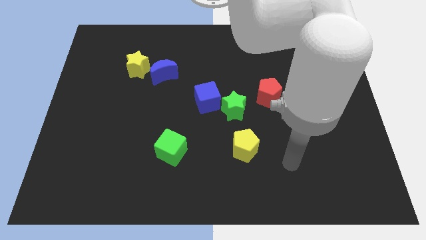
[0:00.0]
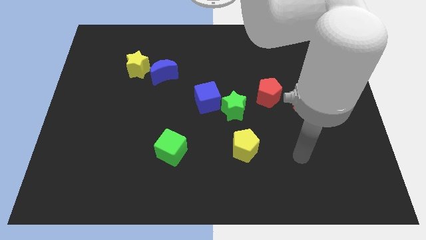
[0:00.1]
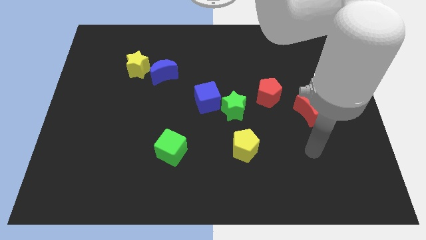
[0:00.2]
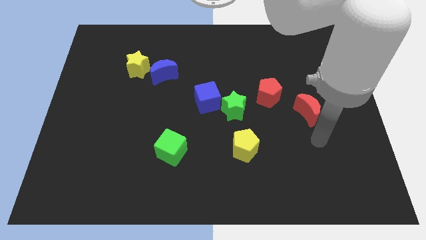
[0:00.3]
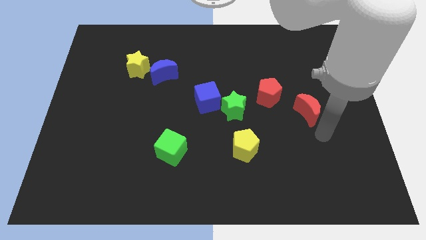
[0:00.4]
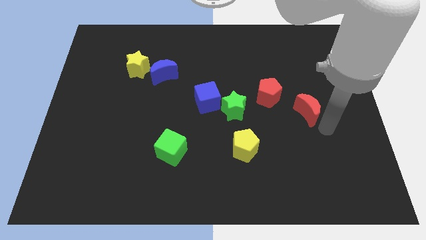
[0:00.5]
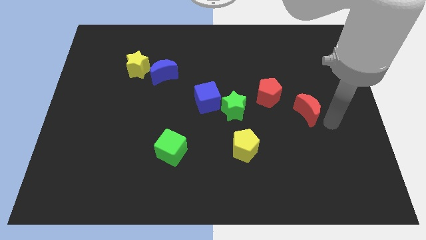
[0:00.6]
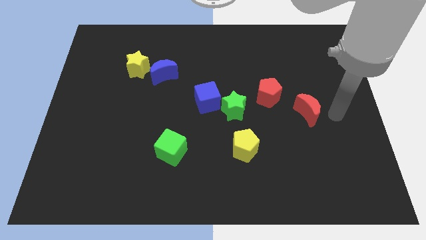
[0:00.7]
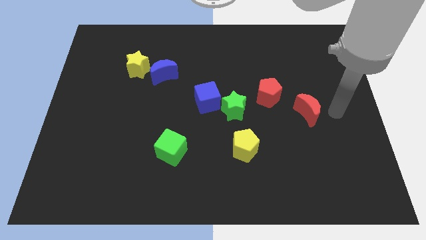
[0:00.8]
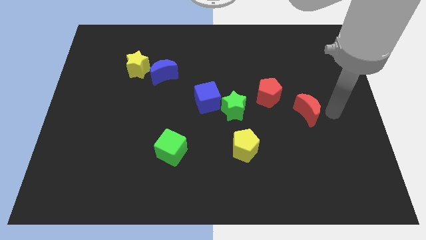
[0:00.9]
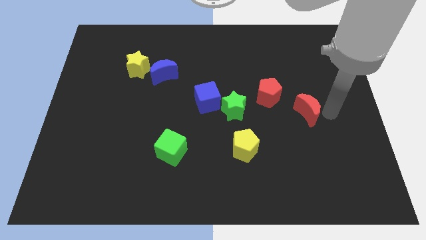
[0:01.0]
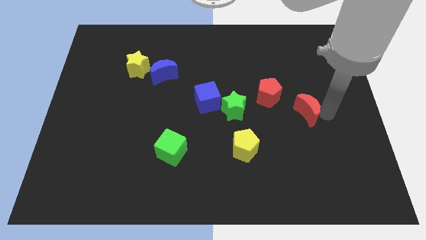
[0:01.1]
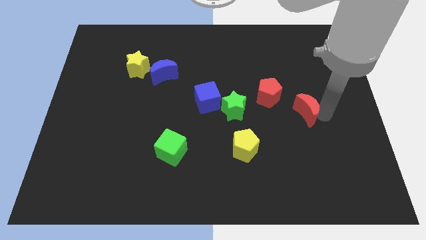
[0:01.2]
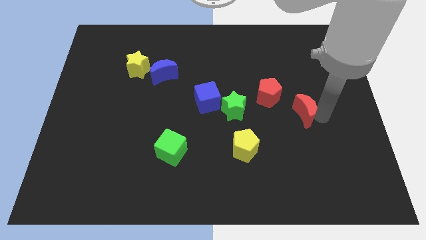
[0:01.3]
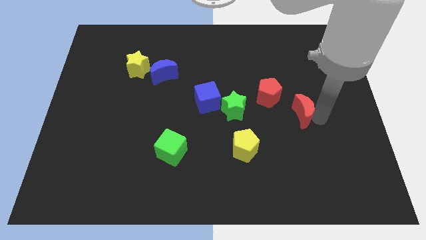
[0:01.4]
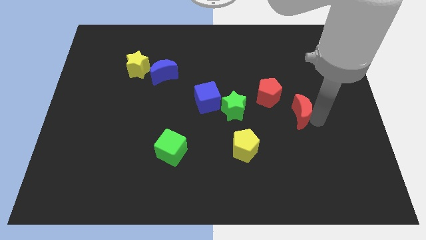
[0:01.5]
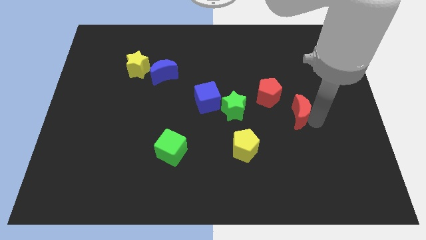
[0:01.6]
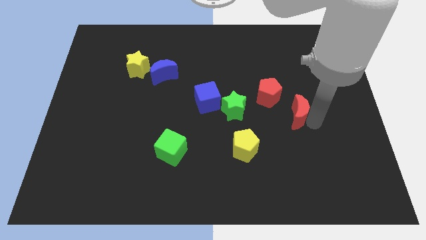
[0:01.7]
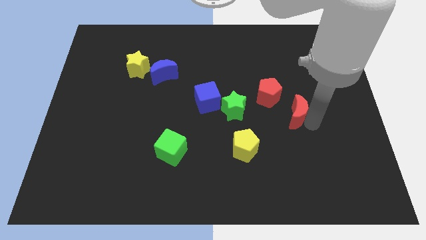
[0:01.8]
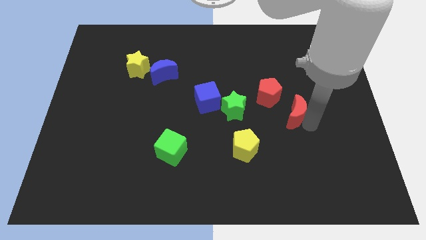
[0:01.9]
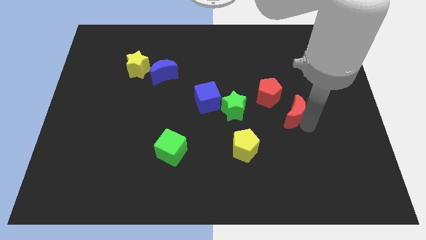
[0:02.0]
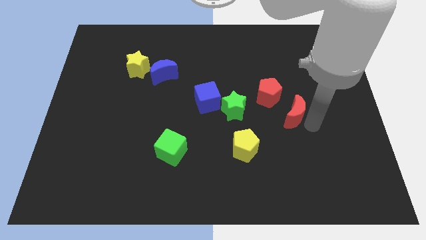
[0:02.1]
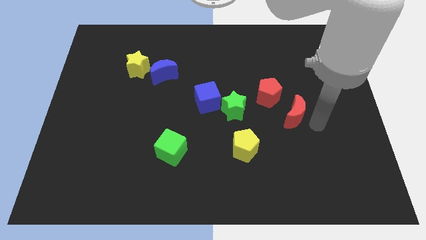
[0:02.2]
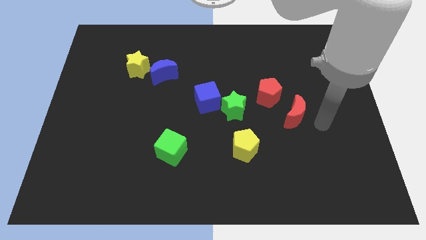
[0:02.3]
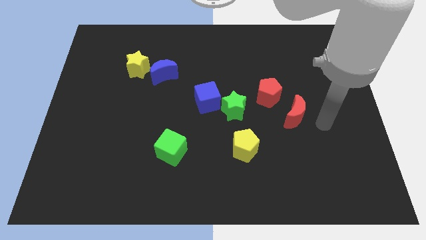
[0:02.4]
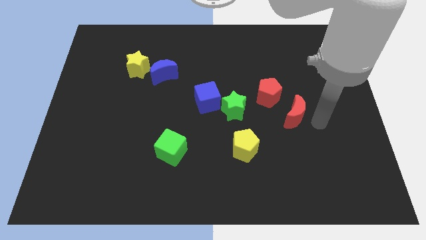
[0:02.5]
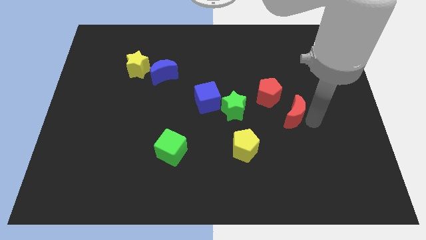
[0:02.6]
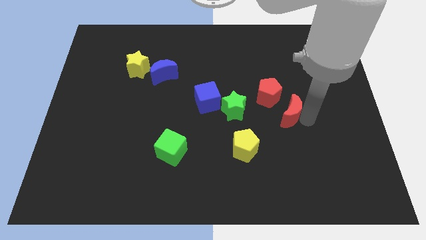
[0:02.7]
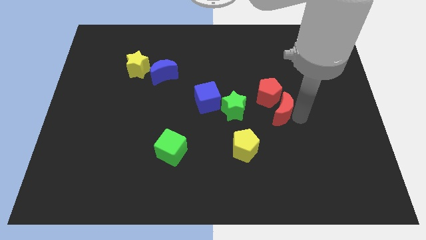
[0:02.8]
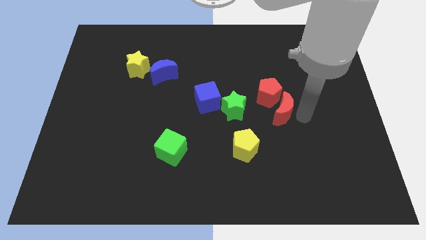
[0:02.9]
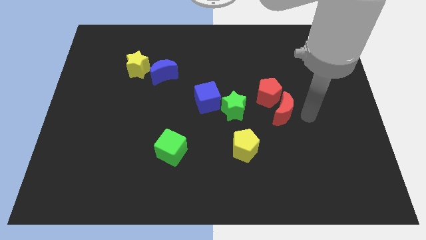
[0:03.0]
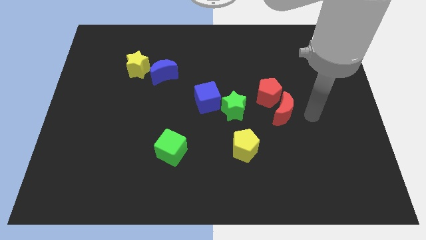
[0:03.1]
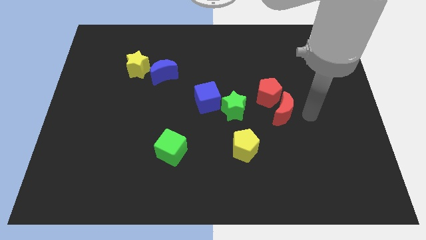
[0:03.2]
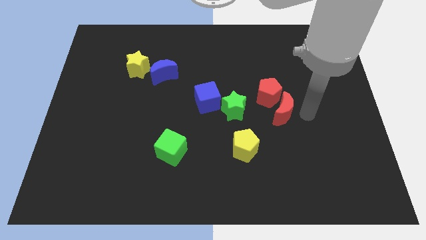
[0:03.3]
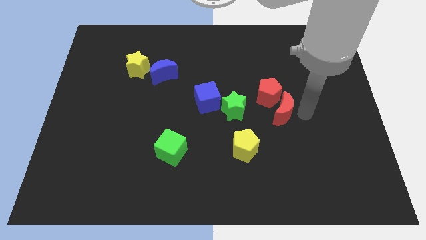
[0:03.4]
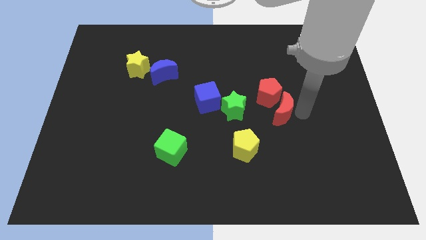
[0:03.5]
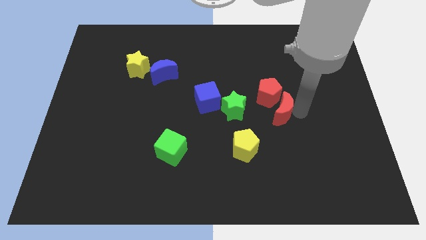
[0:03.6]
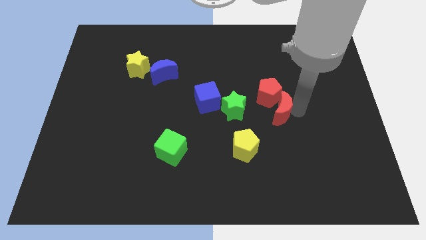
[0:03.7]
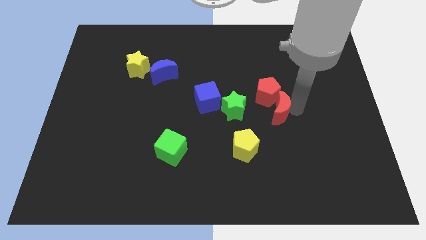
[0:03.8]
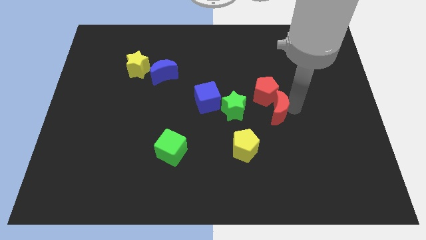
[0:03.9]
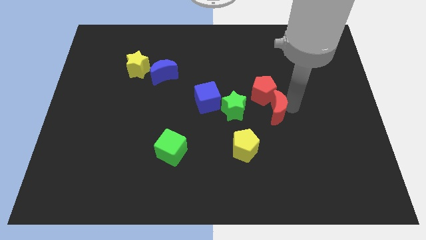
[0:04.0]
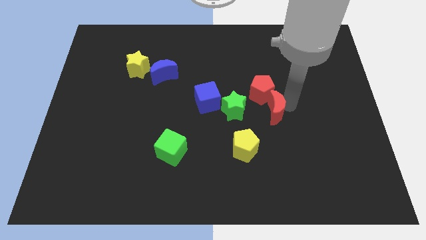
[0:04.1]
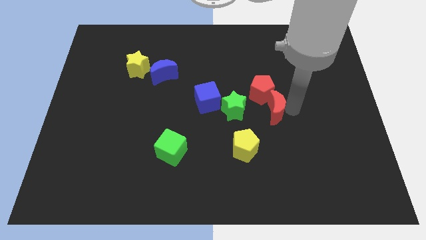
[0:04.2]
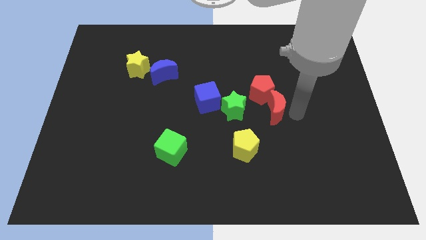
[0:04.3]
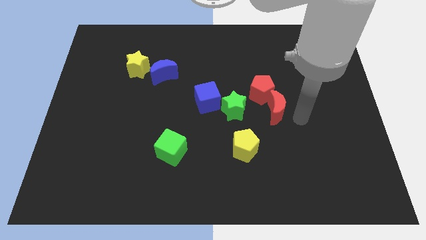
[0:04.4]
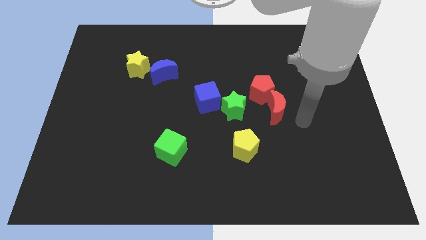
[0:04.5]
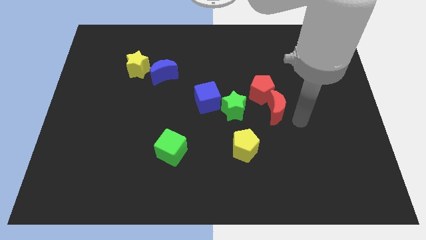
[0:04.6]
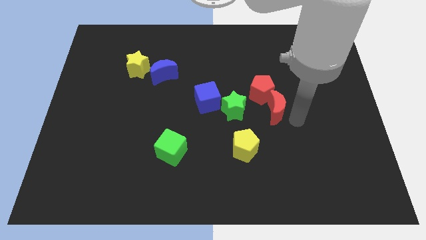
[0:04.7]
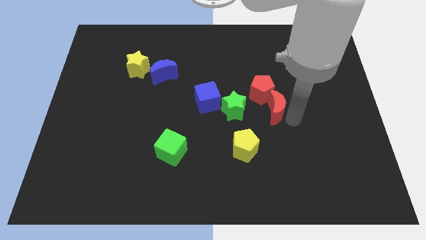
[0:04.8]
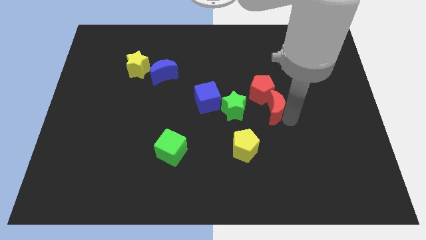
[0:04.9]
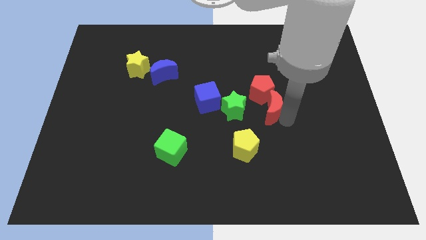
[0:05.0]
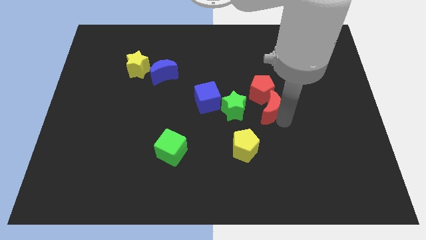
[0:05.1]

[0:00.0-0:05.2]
push the red moon to the right of the blue cube

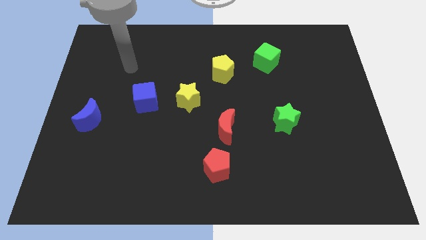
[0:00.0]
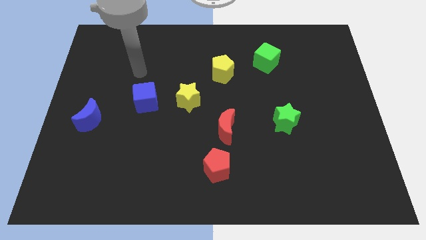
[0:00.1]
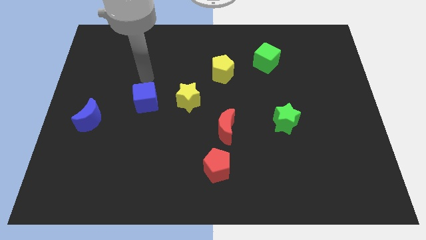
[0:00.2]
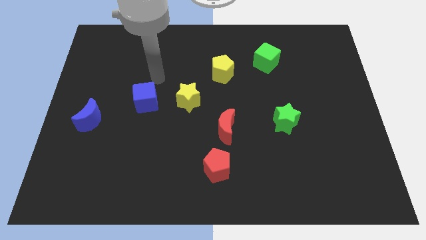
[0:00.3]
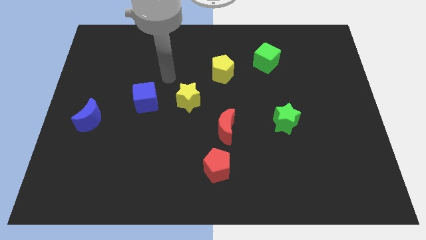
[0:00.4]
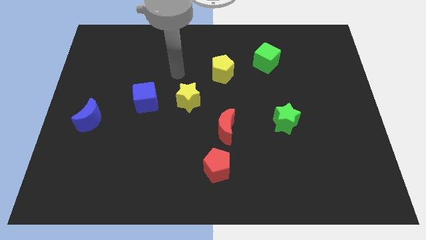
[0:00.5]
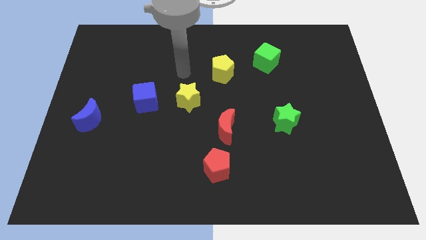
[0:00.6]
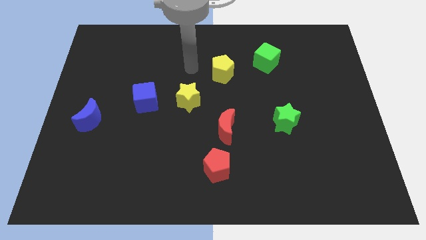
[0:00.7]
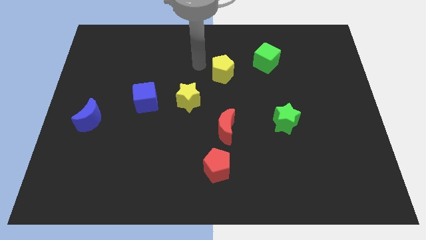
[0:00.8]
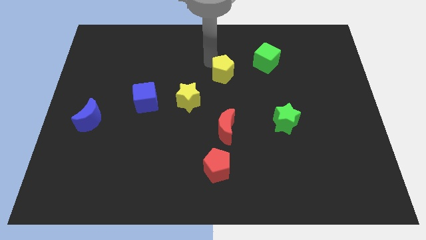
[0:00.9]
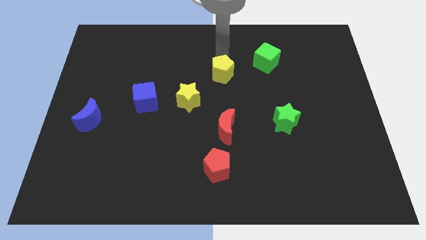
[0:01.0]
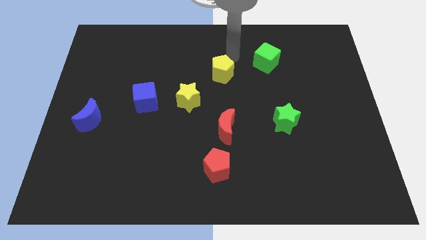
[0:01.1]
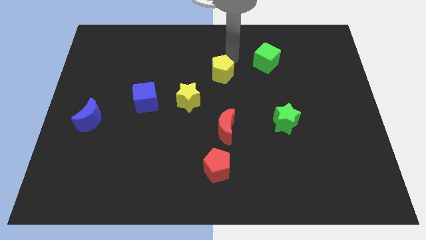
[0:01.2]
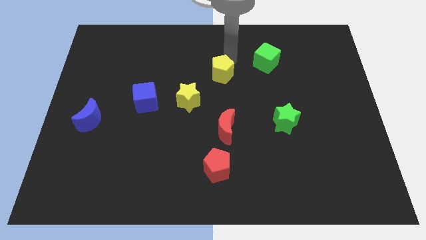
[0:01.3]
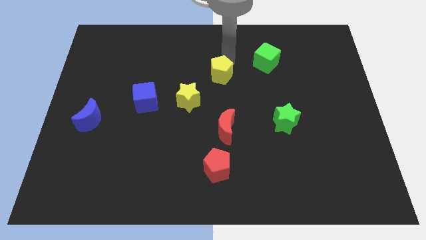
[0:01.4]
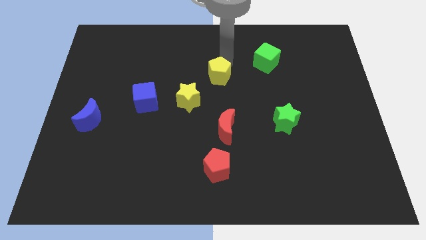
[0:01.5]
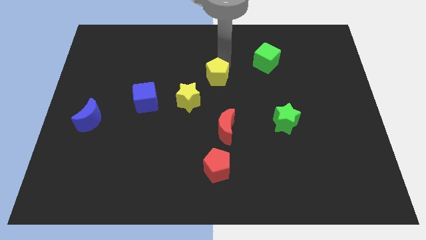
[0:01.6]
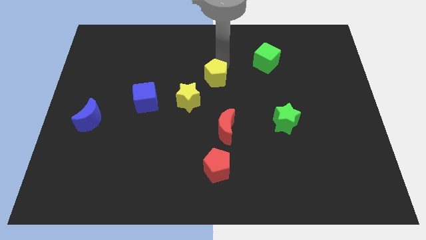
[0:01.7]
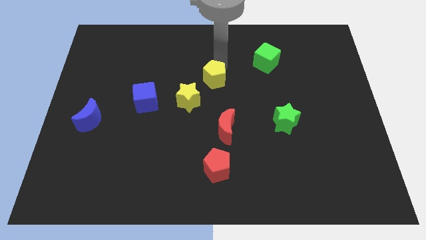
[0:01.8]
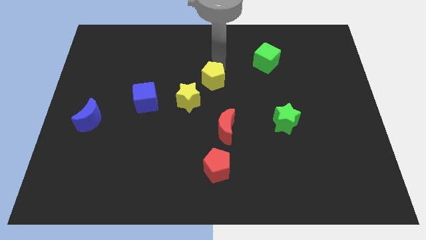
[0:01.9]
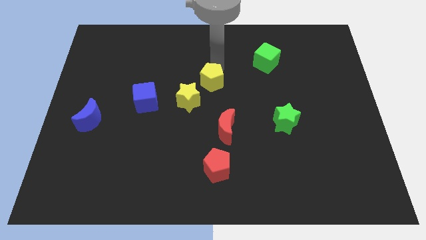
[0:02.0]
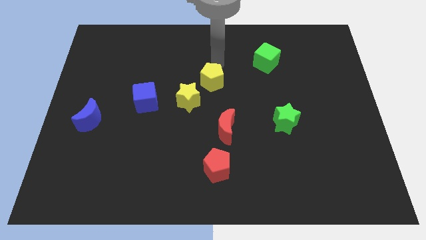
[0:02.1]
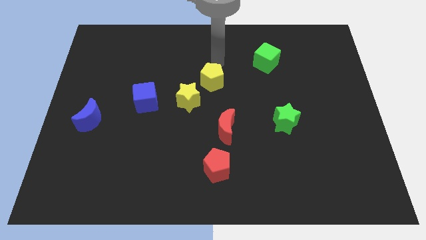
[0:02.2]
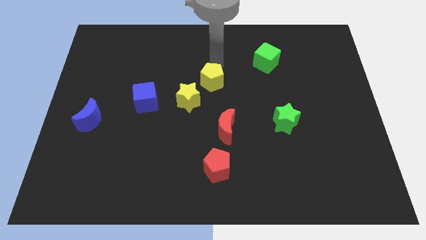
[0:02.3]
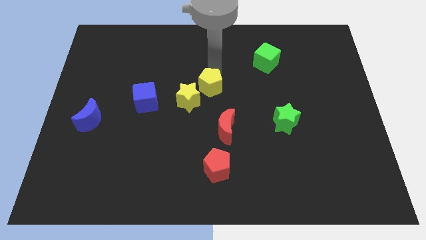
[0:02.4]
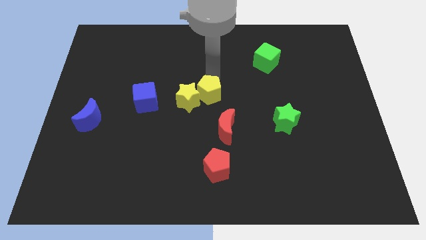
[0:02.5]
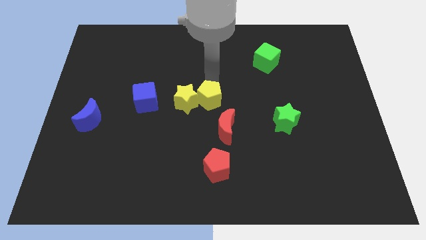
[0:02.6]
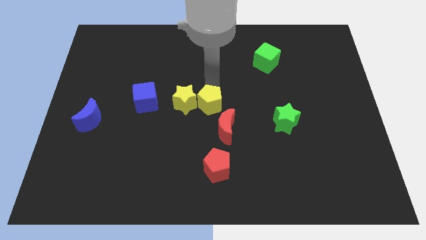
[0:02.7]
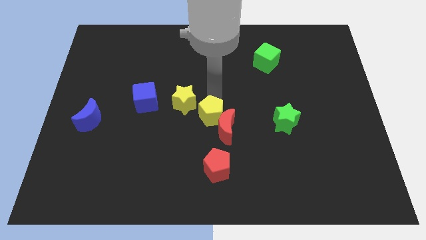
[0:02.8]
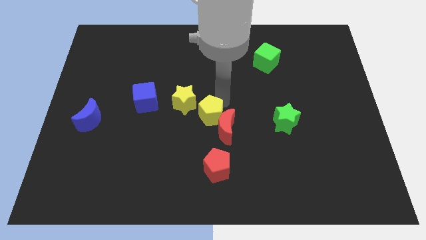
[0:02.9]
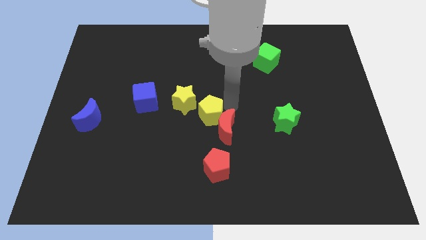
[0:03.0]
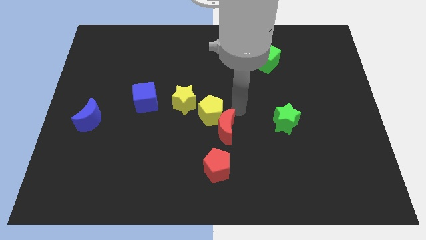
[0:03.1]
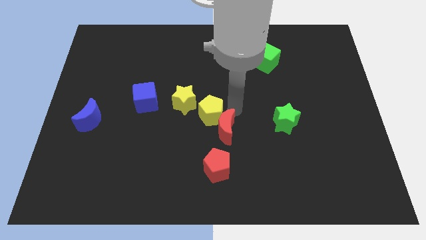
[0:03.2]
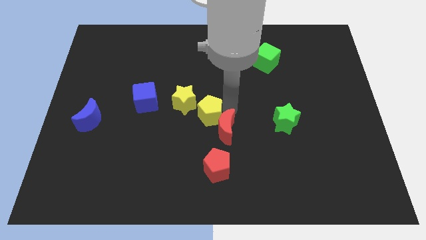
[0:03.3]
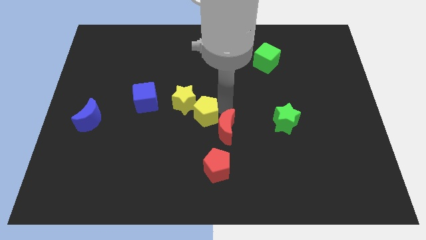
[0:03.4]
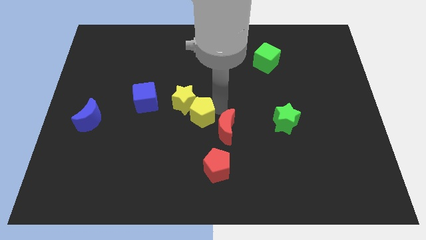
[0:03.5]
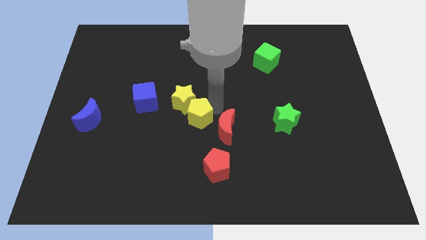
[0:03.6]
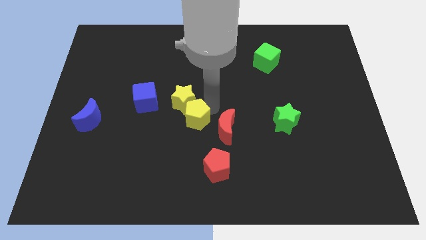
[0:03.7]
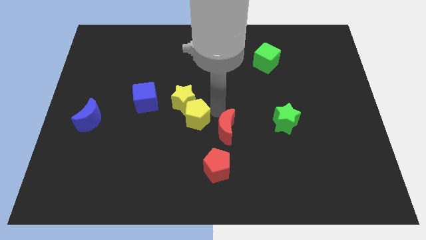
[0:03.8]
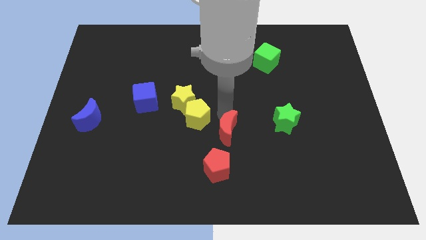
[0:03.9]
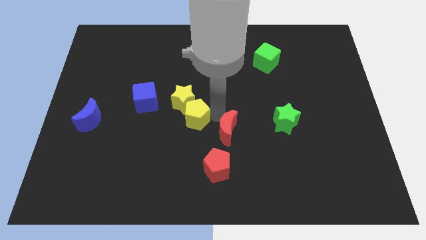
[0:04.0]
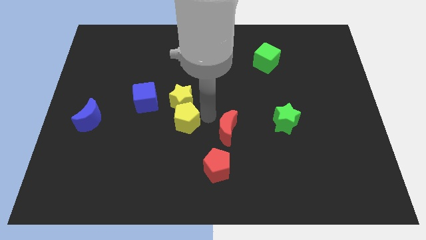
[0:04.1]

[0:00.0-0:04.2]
push the yellow pentagon to the bottom left of the yellow star
